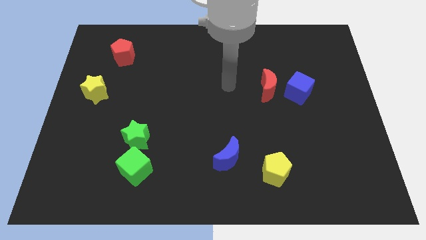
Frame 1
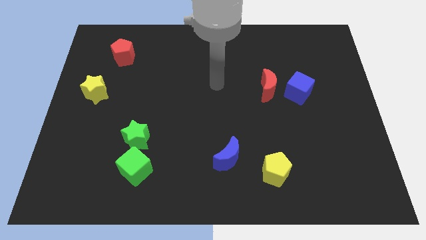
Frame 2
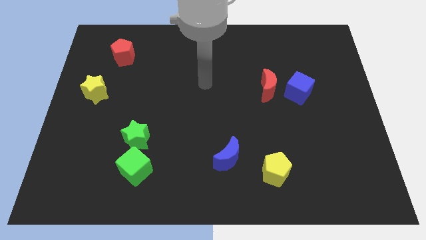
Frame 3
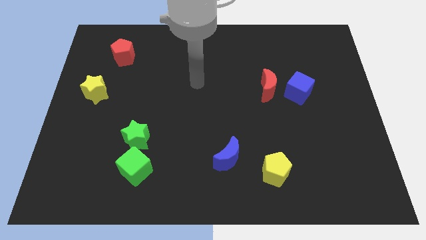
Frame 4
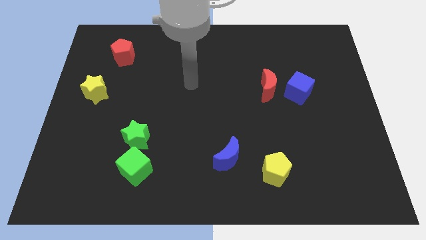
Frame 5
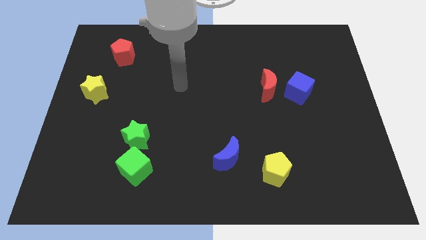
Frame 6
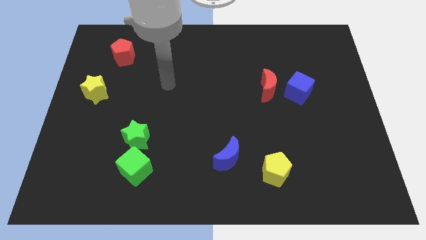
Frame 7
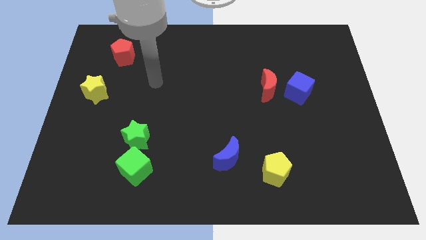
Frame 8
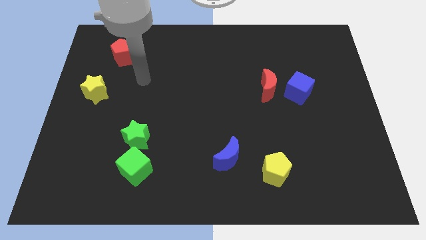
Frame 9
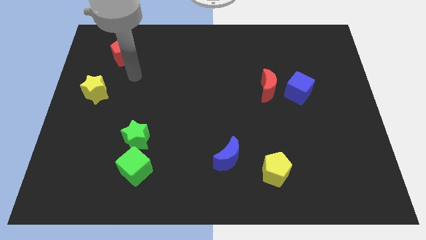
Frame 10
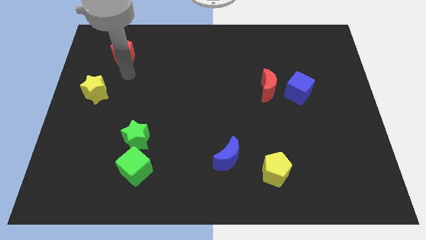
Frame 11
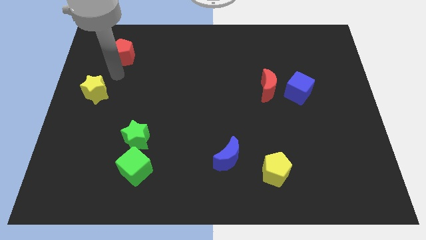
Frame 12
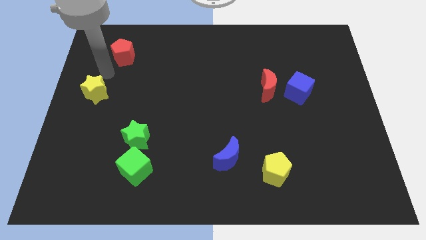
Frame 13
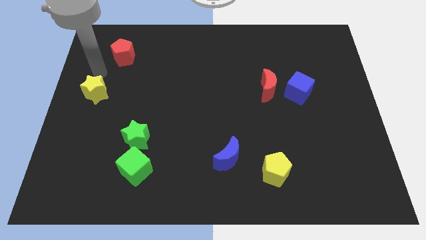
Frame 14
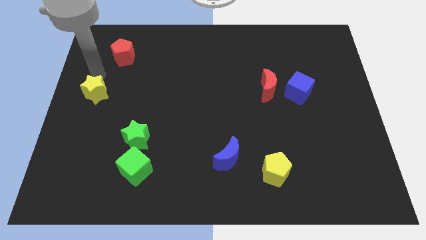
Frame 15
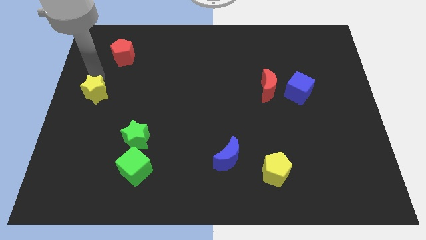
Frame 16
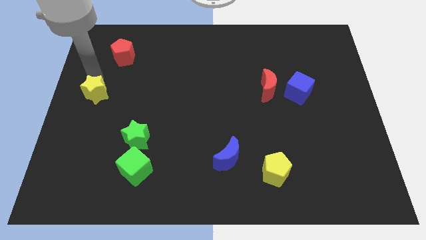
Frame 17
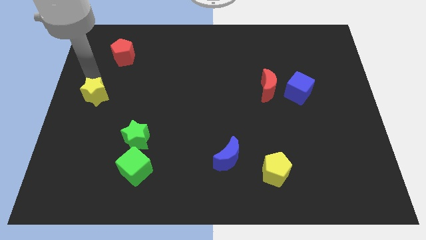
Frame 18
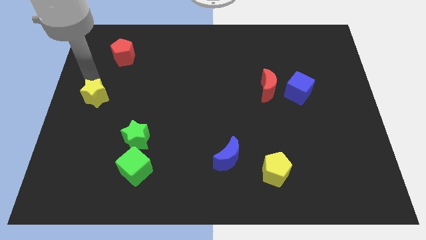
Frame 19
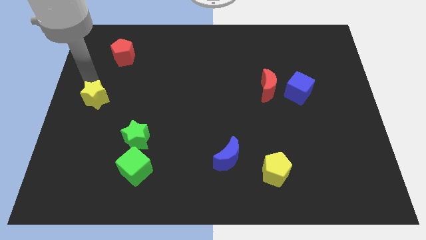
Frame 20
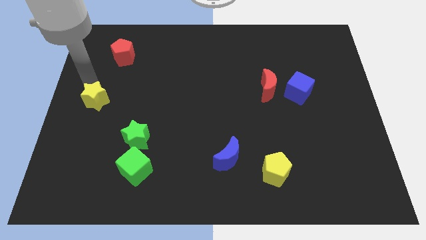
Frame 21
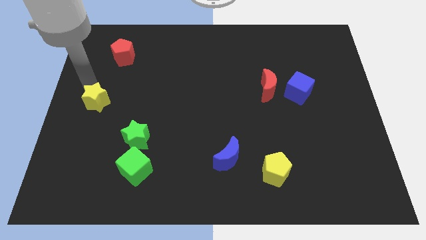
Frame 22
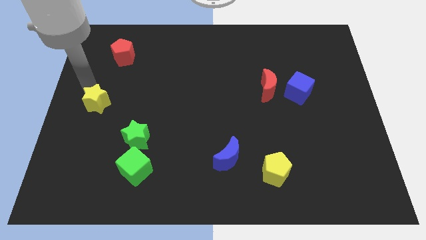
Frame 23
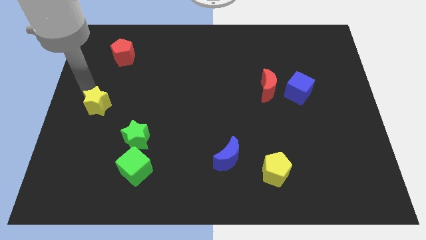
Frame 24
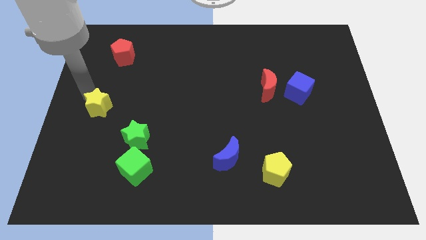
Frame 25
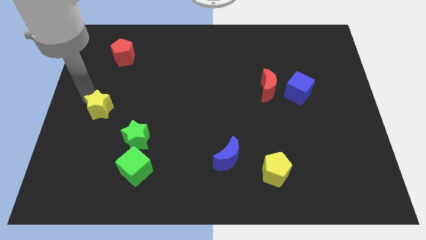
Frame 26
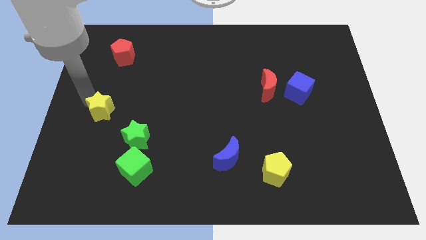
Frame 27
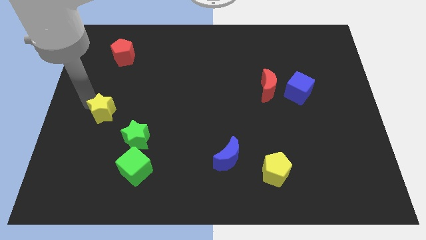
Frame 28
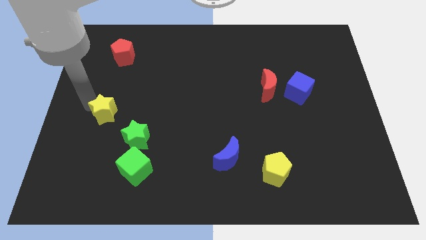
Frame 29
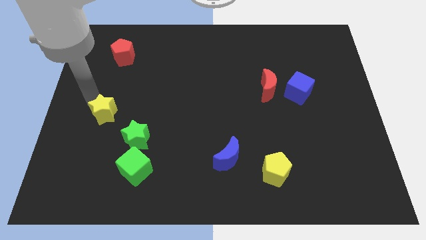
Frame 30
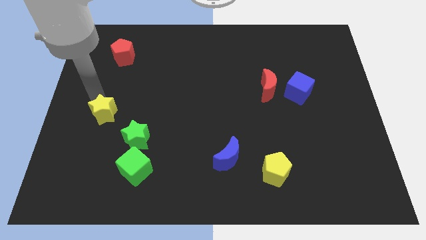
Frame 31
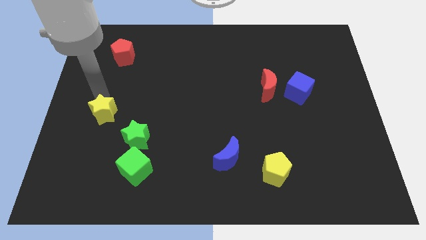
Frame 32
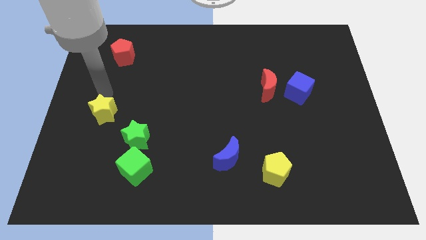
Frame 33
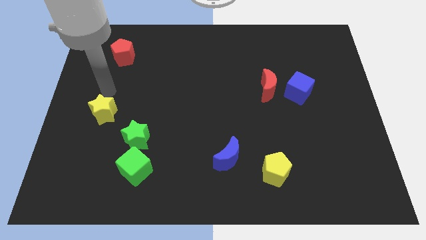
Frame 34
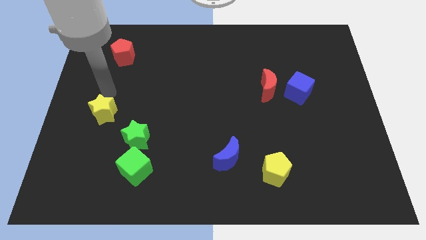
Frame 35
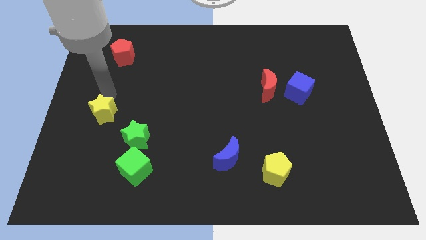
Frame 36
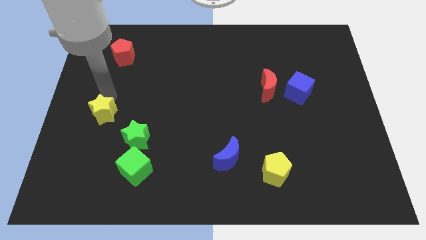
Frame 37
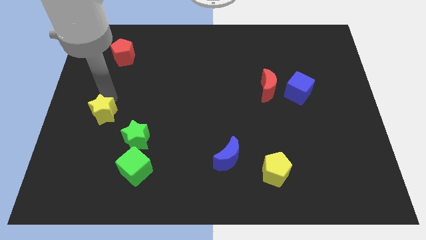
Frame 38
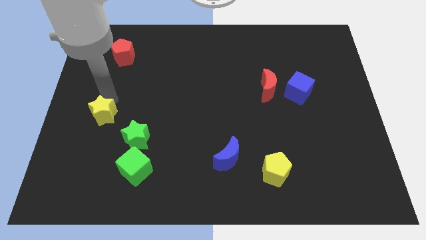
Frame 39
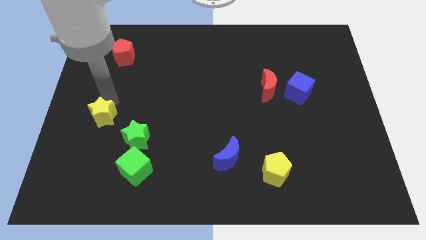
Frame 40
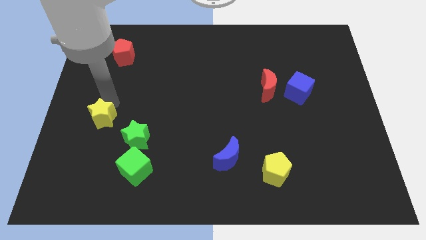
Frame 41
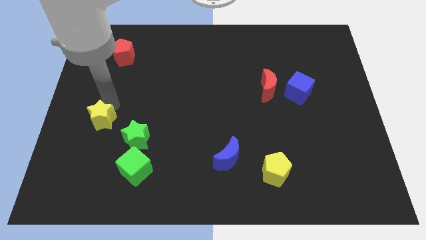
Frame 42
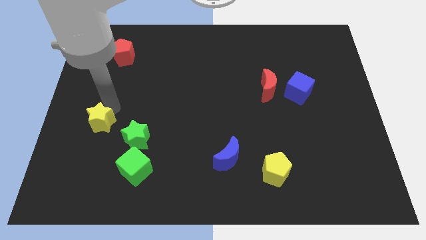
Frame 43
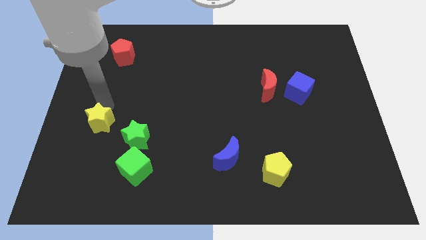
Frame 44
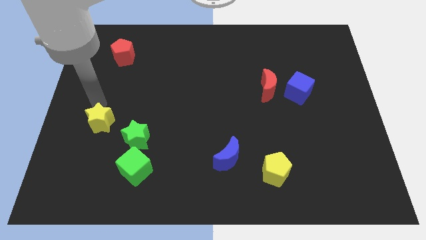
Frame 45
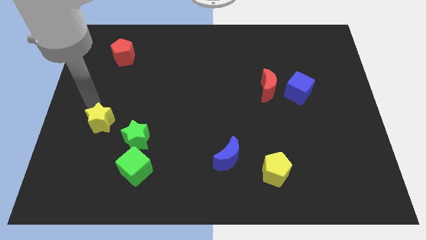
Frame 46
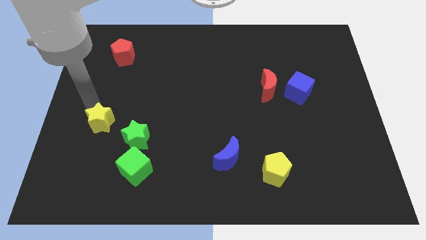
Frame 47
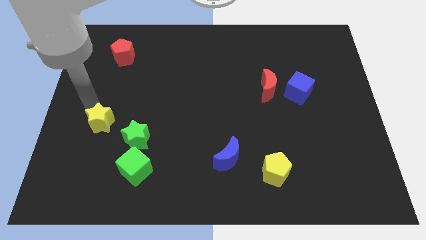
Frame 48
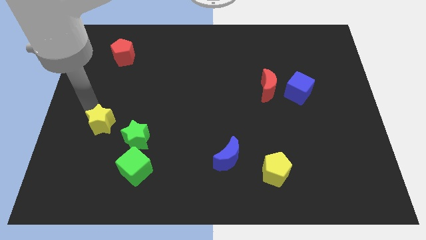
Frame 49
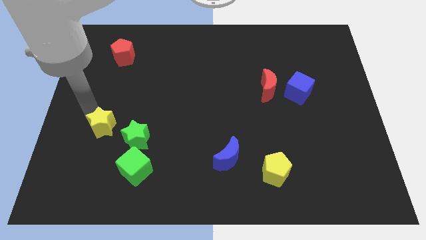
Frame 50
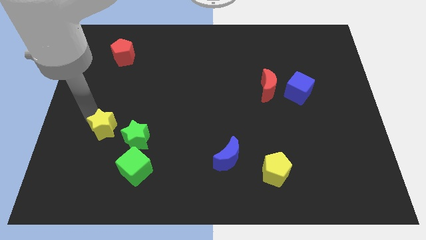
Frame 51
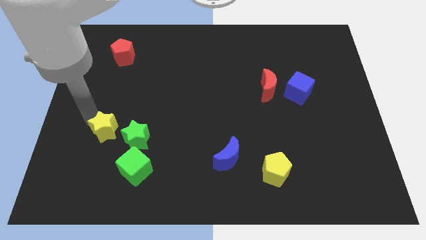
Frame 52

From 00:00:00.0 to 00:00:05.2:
put the yellow star diagonally up and to the left of the green cube

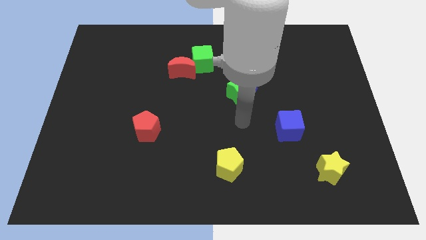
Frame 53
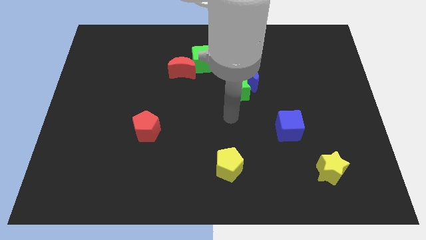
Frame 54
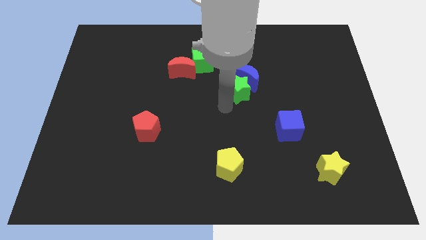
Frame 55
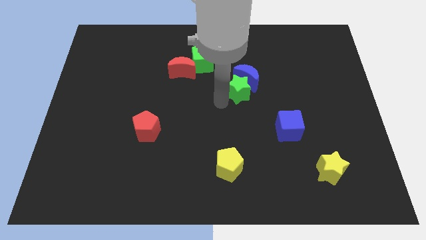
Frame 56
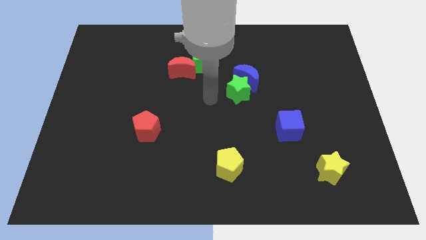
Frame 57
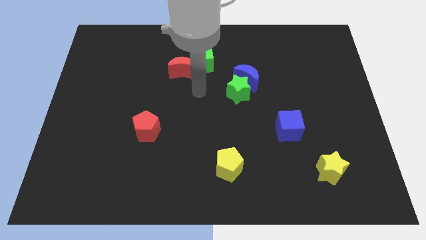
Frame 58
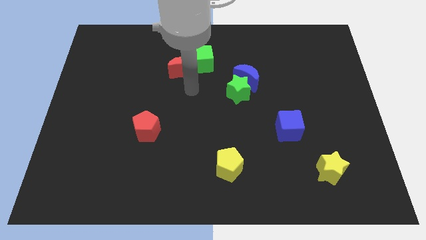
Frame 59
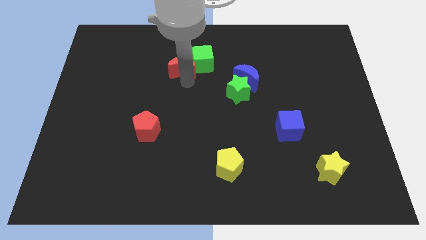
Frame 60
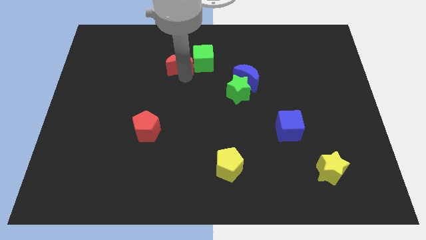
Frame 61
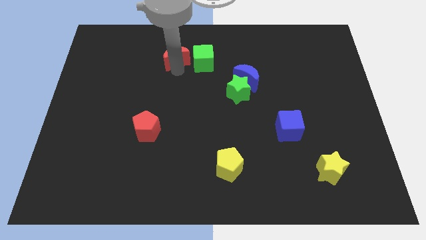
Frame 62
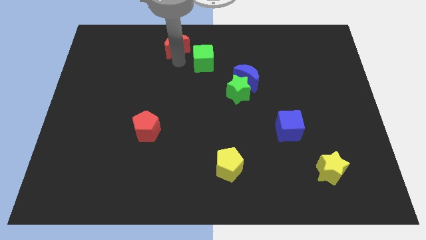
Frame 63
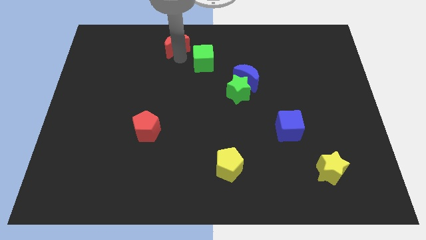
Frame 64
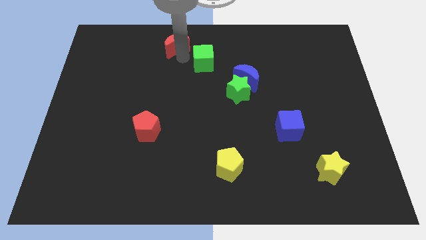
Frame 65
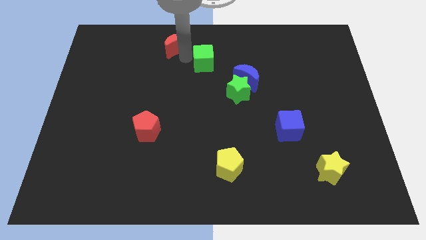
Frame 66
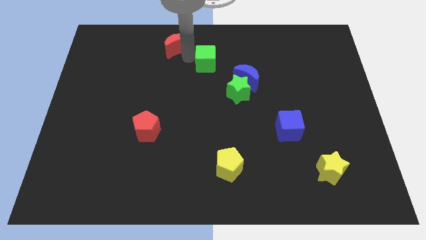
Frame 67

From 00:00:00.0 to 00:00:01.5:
put the green cube to the top left of the blue moon

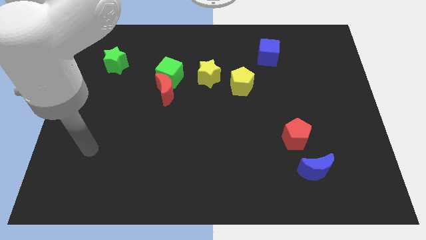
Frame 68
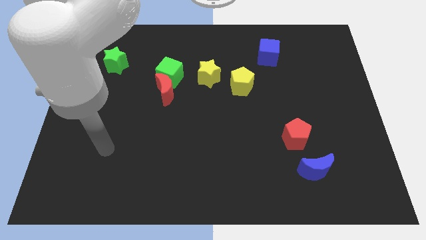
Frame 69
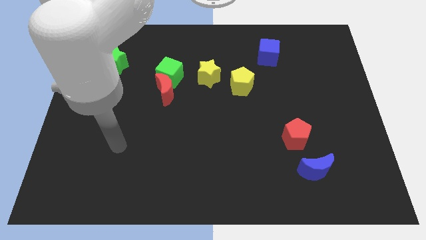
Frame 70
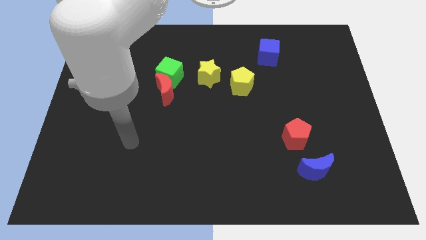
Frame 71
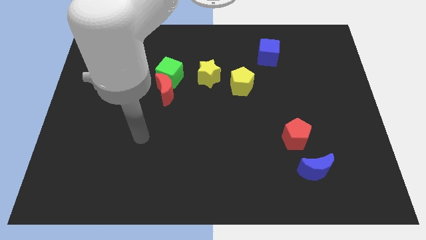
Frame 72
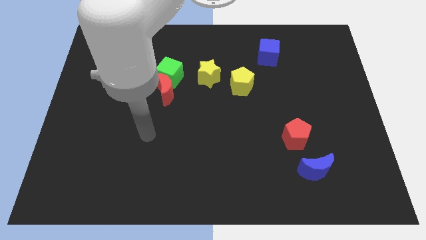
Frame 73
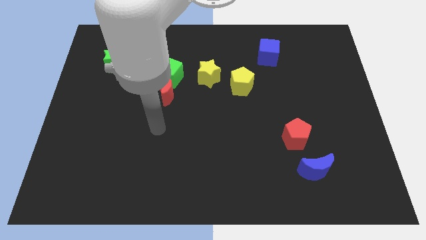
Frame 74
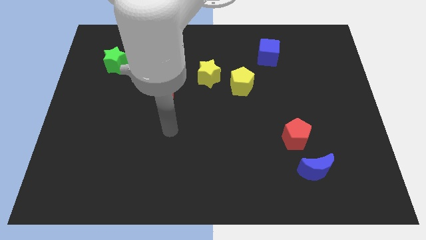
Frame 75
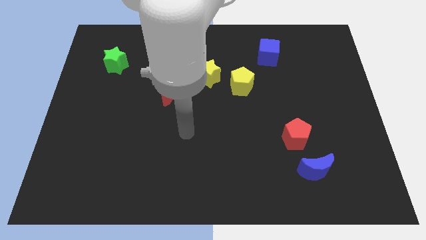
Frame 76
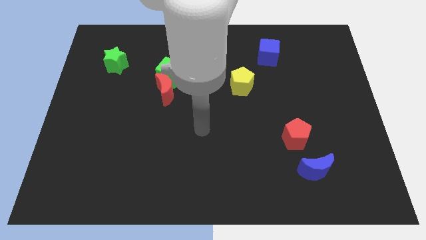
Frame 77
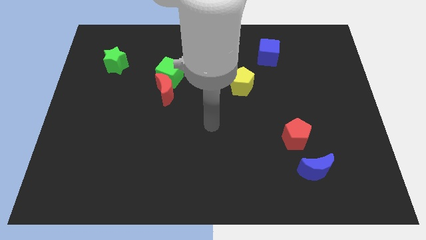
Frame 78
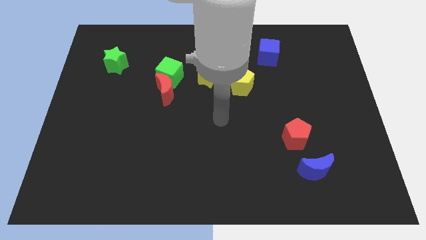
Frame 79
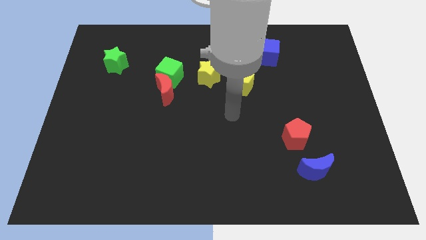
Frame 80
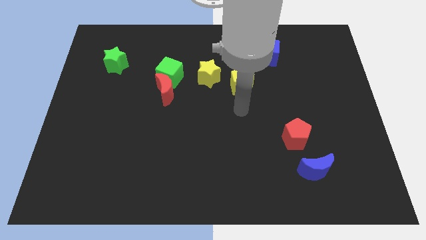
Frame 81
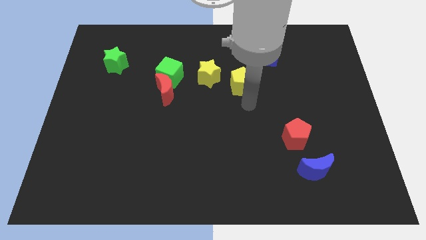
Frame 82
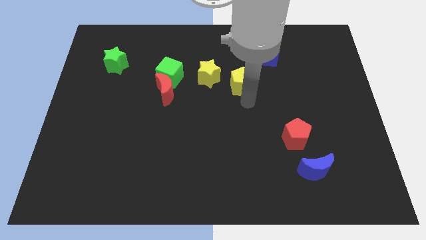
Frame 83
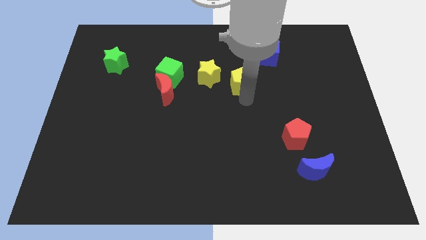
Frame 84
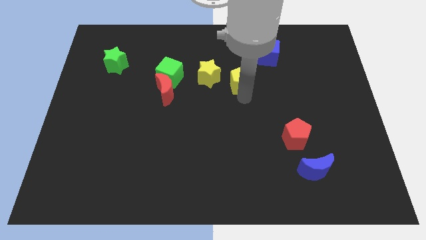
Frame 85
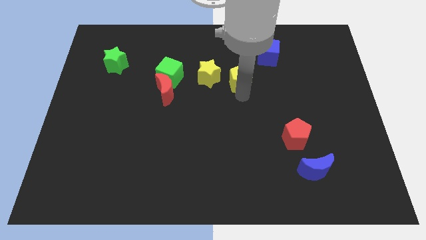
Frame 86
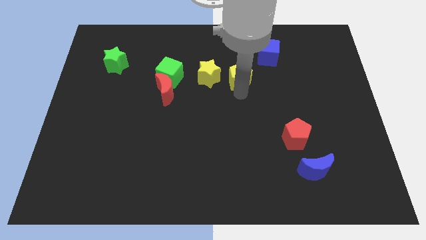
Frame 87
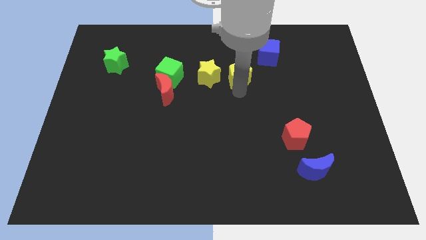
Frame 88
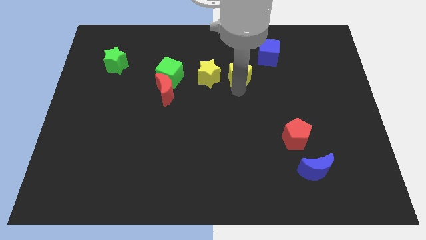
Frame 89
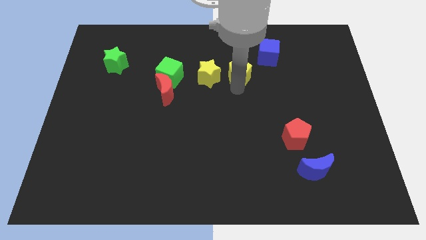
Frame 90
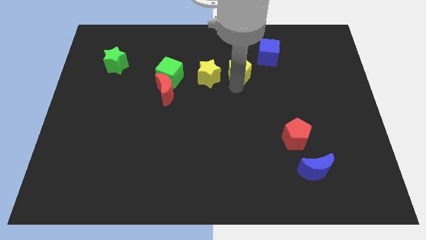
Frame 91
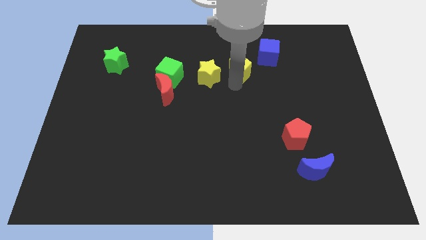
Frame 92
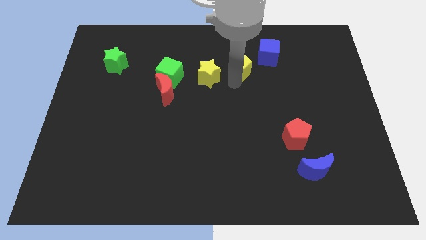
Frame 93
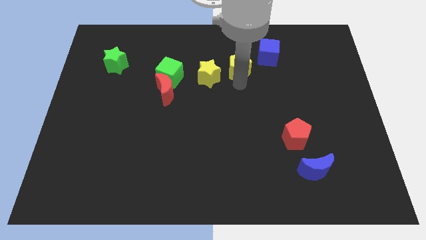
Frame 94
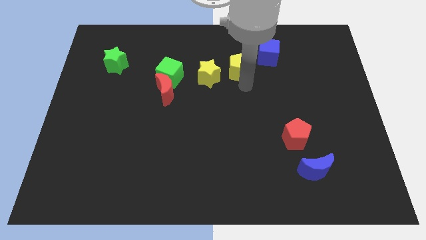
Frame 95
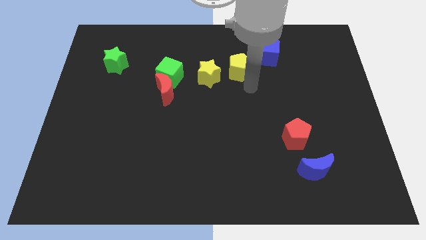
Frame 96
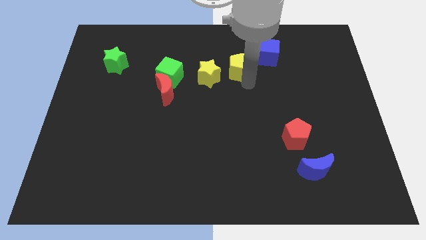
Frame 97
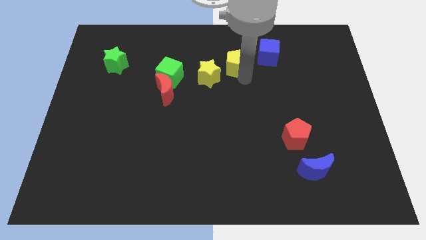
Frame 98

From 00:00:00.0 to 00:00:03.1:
push the yellow pentagon just left of the blue cube
